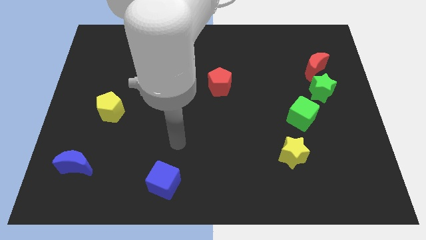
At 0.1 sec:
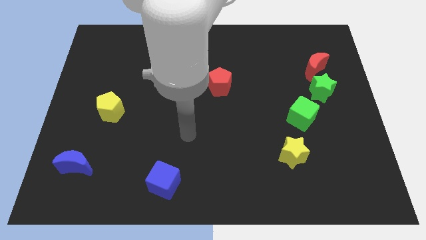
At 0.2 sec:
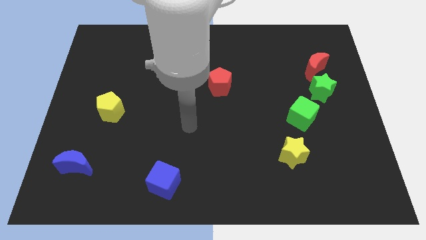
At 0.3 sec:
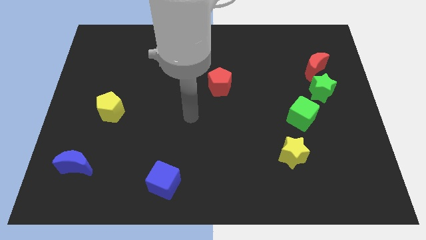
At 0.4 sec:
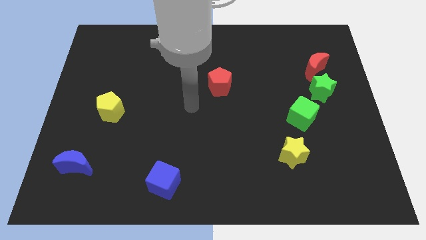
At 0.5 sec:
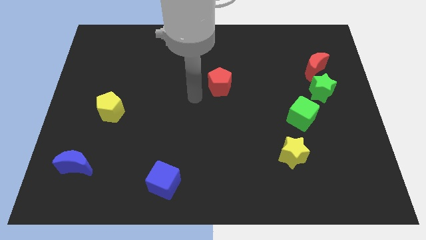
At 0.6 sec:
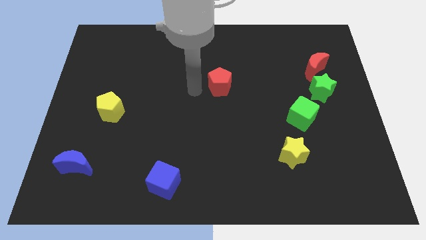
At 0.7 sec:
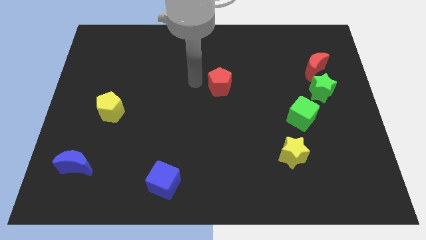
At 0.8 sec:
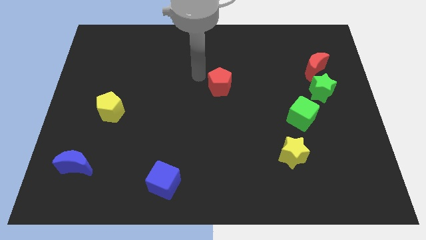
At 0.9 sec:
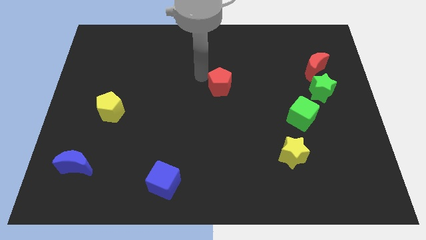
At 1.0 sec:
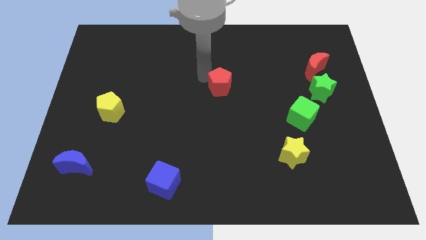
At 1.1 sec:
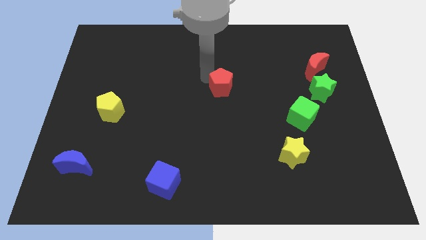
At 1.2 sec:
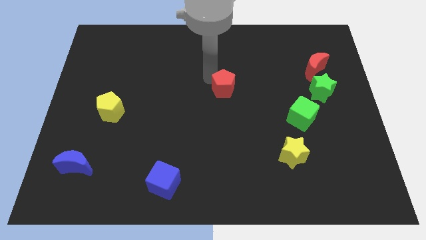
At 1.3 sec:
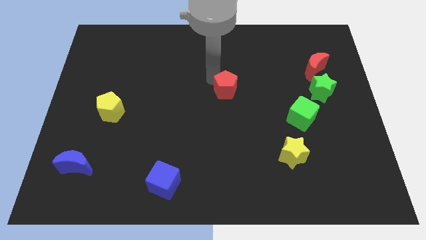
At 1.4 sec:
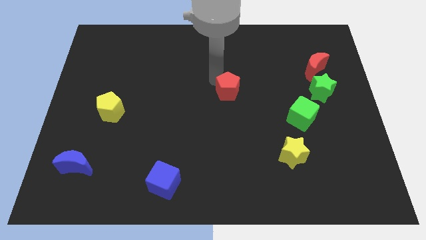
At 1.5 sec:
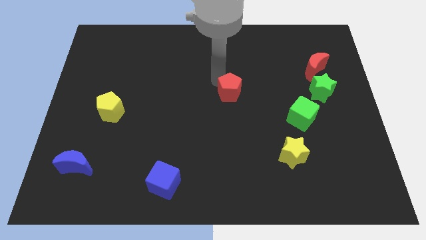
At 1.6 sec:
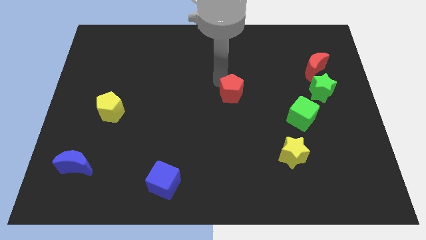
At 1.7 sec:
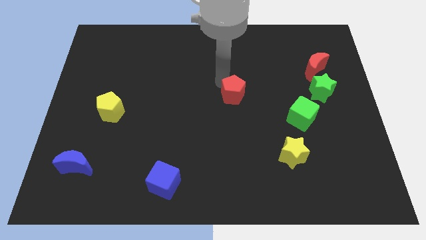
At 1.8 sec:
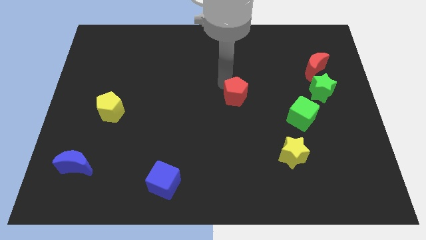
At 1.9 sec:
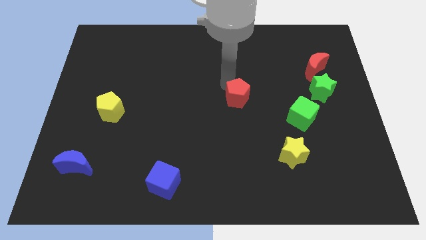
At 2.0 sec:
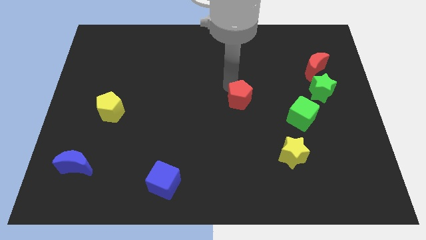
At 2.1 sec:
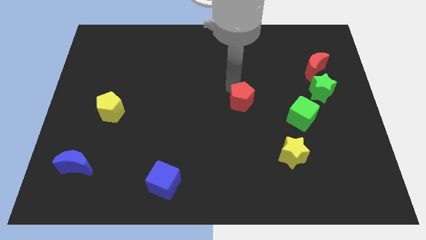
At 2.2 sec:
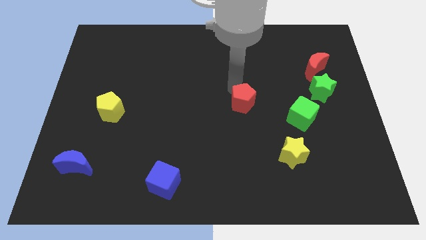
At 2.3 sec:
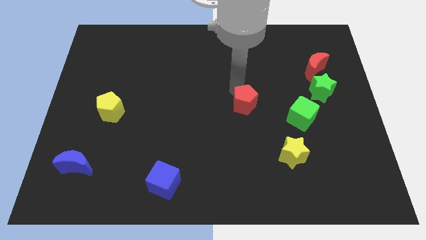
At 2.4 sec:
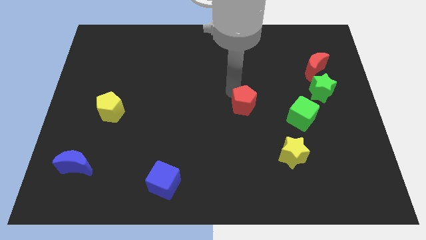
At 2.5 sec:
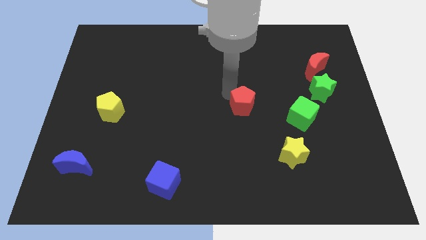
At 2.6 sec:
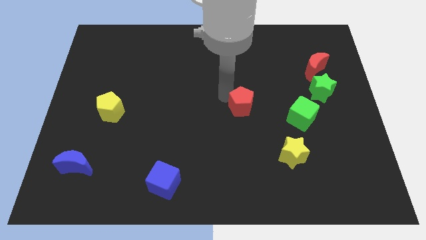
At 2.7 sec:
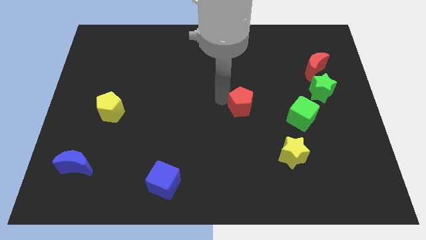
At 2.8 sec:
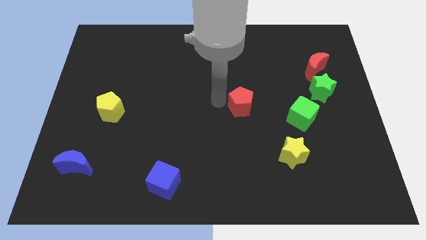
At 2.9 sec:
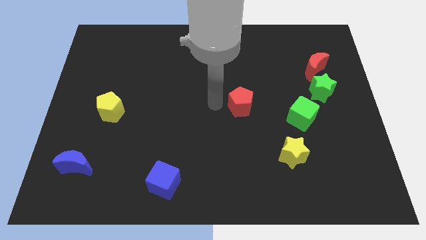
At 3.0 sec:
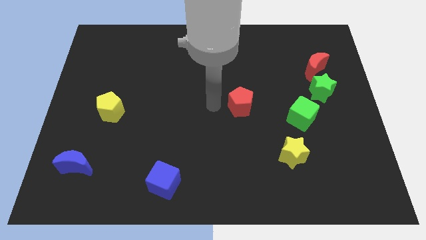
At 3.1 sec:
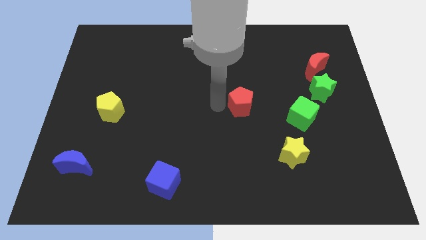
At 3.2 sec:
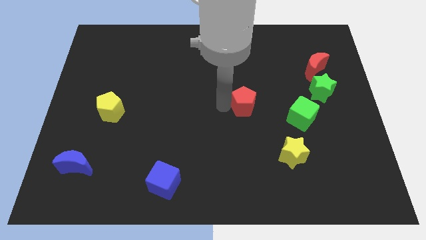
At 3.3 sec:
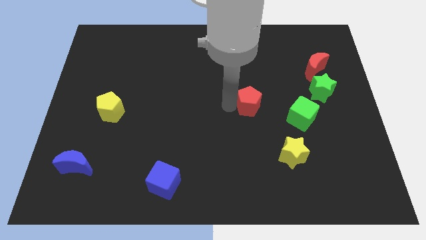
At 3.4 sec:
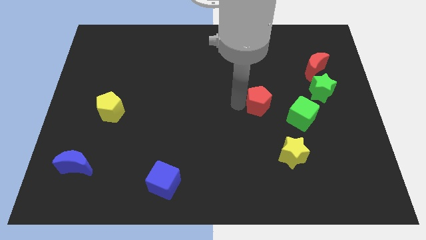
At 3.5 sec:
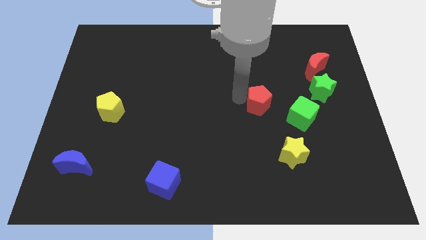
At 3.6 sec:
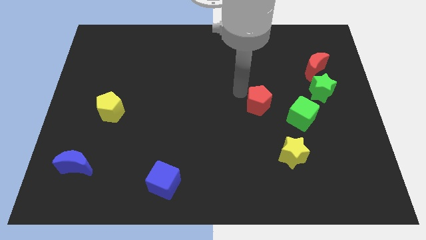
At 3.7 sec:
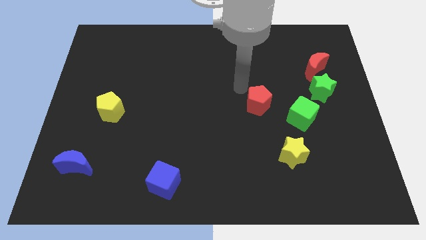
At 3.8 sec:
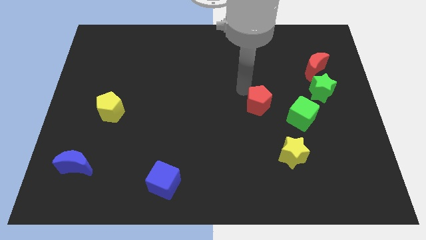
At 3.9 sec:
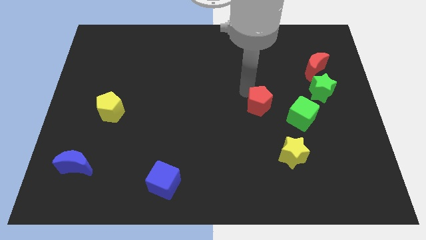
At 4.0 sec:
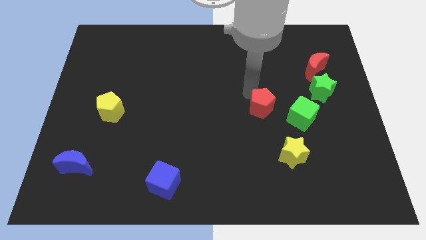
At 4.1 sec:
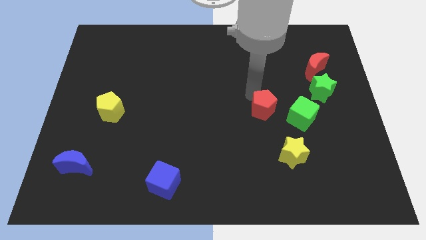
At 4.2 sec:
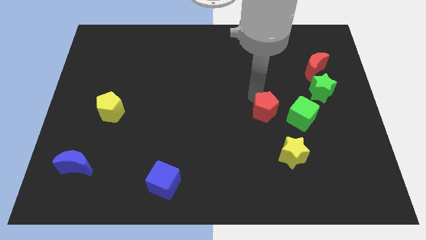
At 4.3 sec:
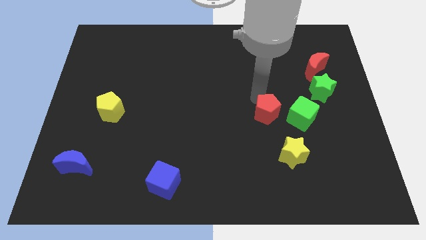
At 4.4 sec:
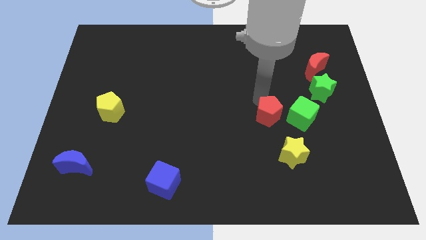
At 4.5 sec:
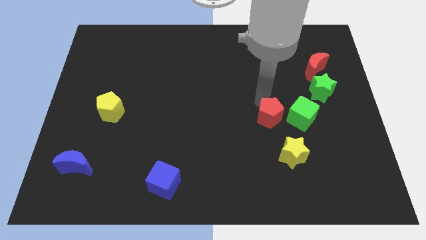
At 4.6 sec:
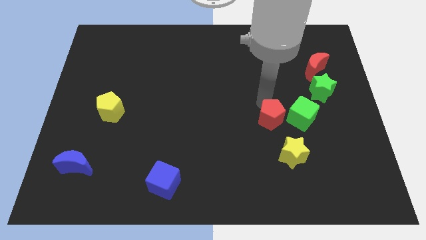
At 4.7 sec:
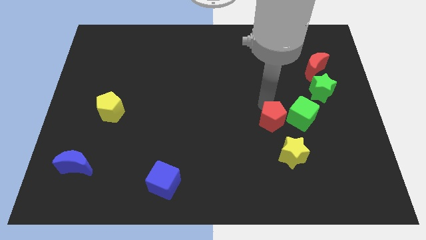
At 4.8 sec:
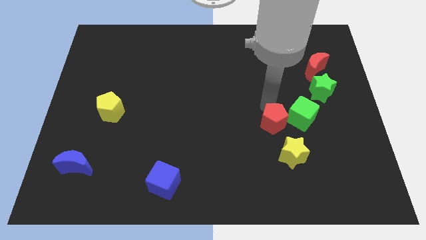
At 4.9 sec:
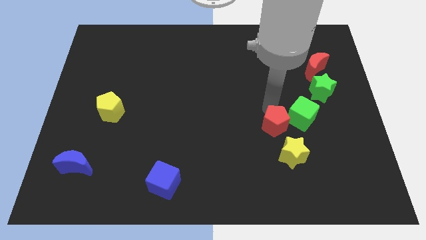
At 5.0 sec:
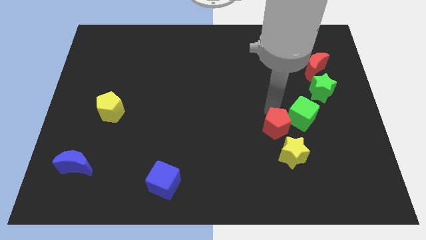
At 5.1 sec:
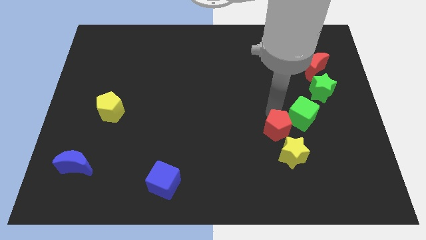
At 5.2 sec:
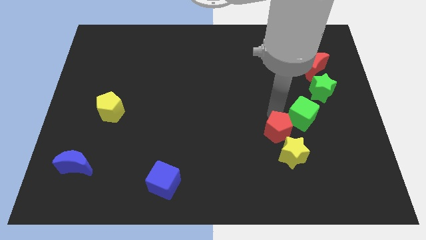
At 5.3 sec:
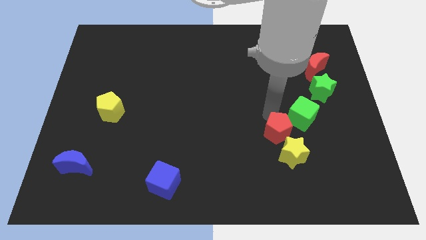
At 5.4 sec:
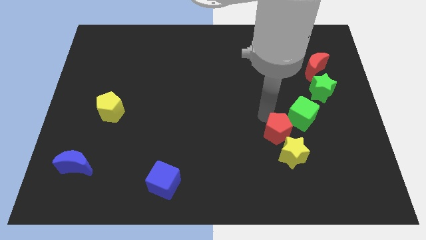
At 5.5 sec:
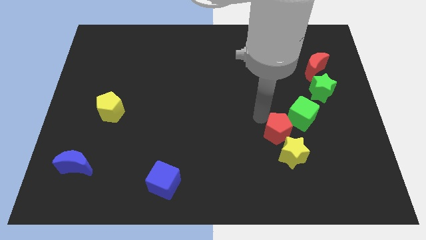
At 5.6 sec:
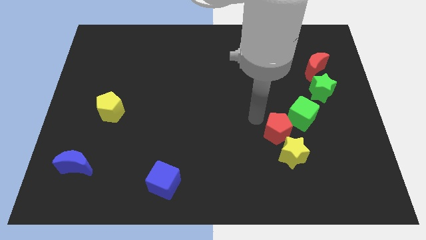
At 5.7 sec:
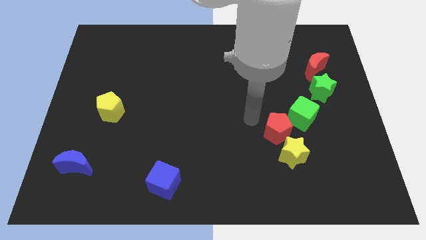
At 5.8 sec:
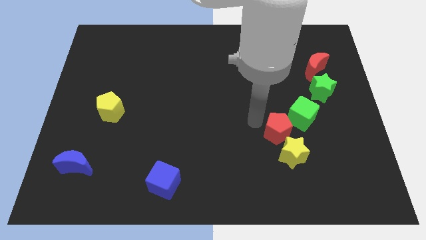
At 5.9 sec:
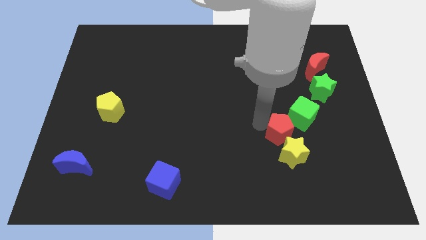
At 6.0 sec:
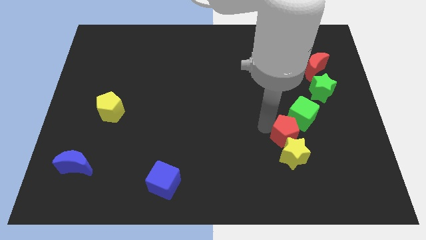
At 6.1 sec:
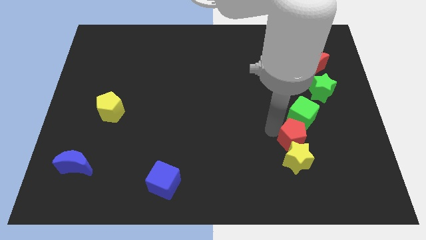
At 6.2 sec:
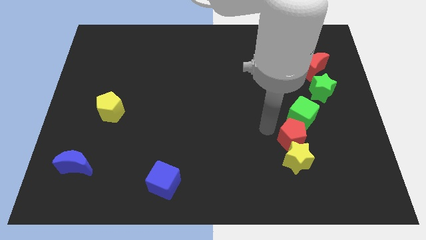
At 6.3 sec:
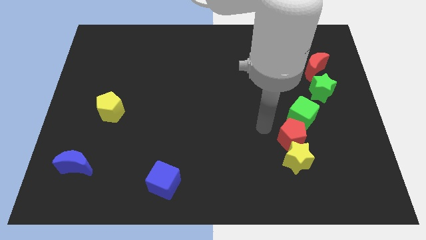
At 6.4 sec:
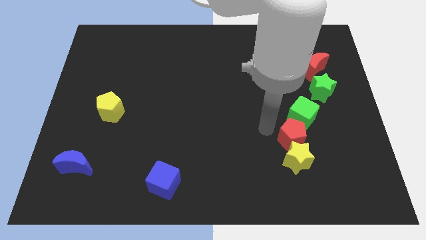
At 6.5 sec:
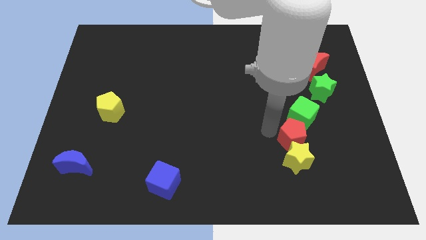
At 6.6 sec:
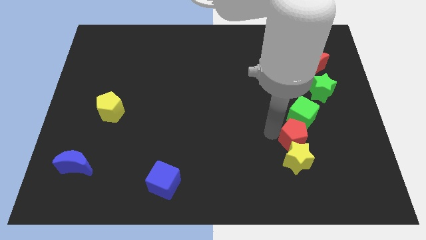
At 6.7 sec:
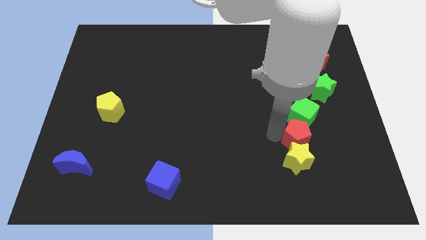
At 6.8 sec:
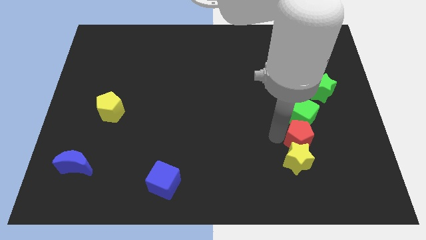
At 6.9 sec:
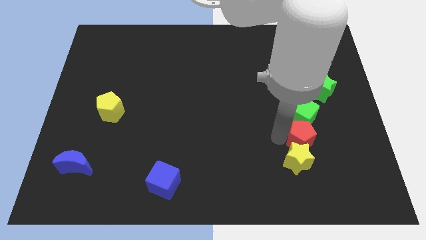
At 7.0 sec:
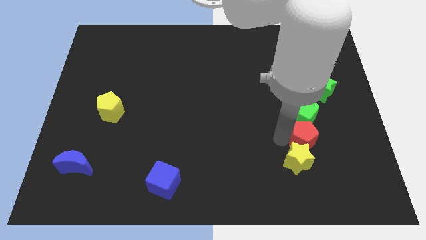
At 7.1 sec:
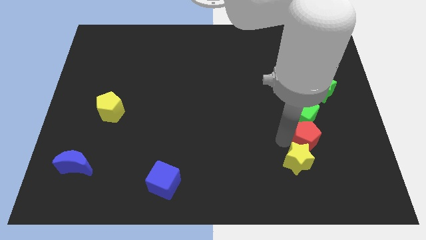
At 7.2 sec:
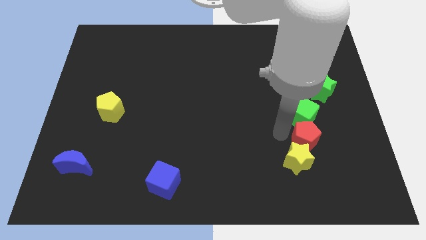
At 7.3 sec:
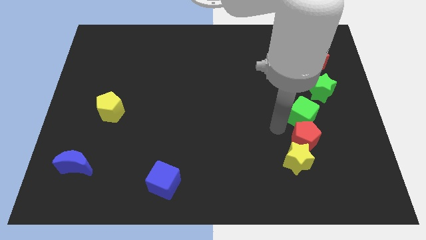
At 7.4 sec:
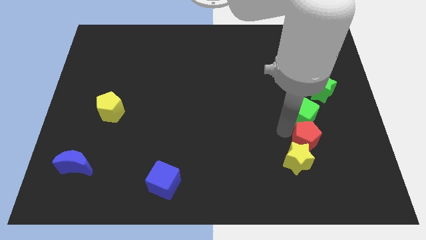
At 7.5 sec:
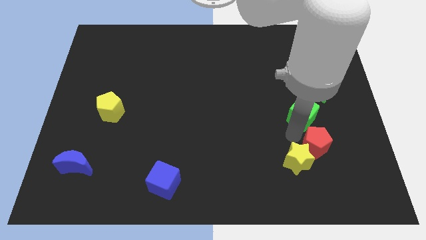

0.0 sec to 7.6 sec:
push the red pentagon to the right side of the yellow star
